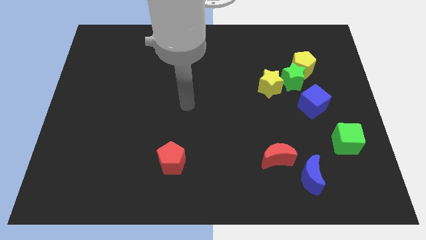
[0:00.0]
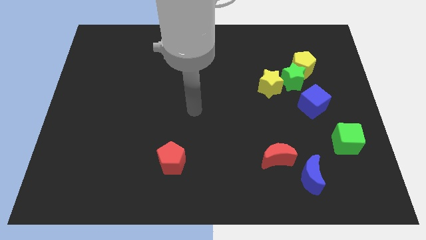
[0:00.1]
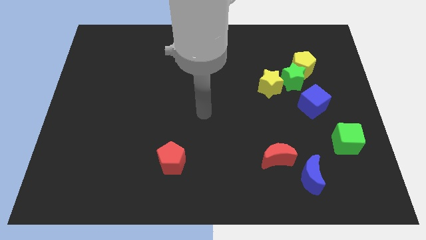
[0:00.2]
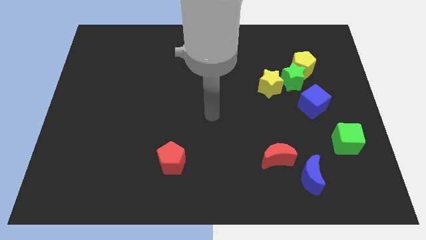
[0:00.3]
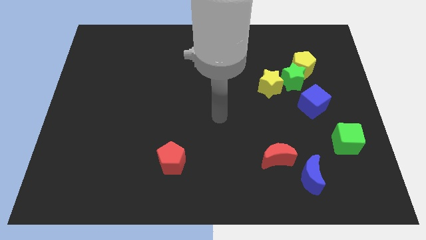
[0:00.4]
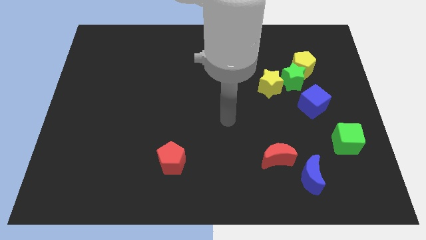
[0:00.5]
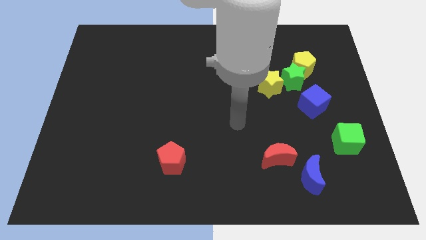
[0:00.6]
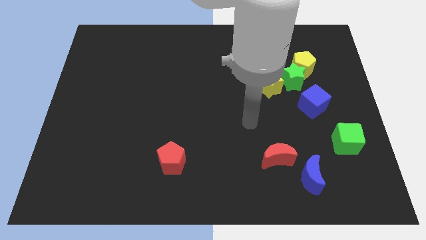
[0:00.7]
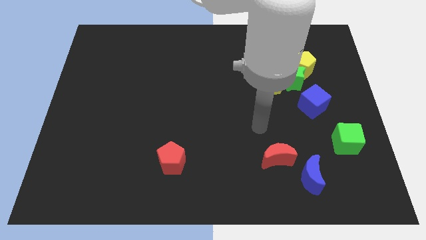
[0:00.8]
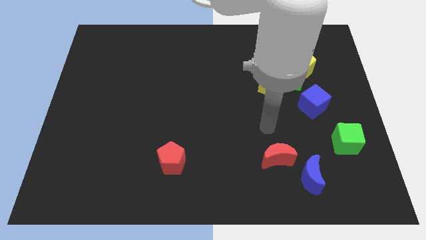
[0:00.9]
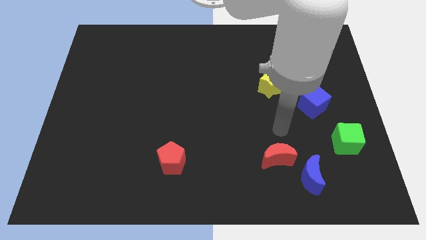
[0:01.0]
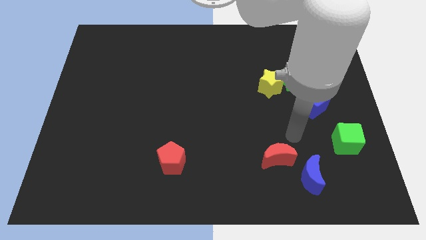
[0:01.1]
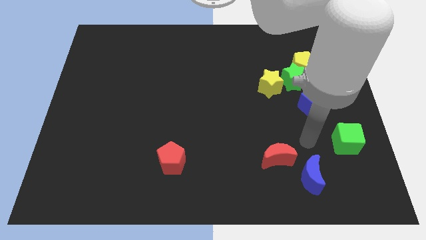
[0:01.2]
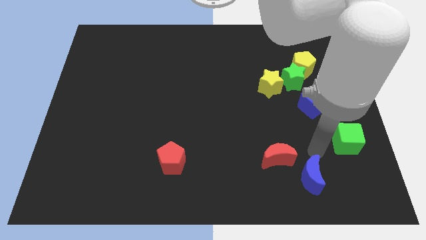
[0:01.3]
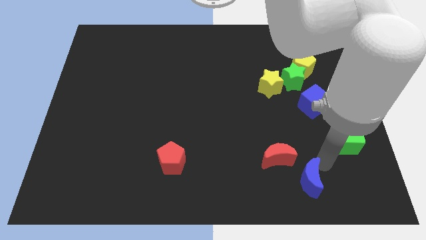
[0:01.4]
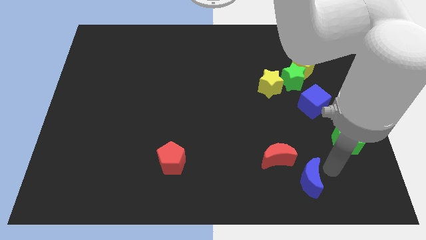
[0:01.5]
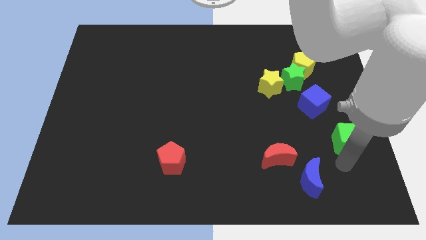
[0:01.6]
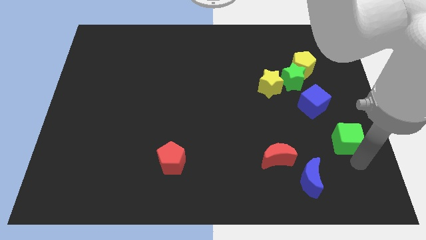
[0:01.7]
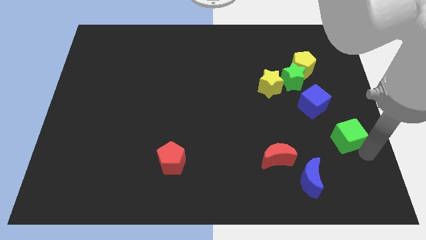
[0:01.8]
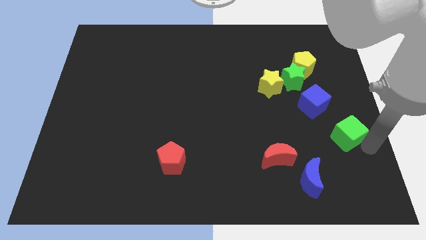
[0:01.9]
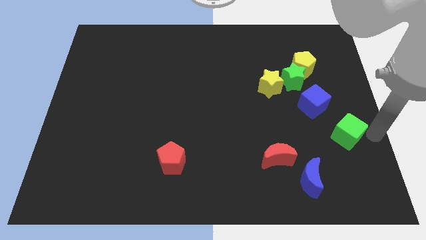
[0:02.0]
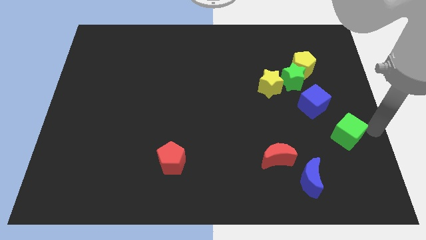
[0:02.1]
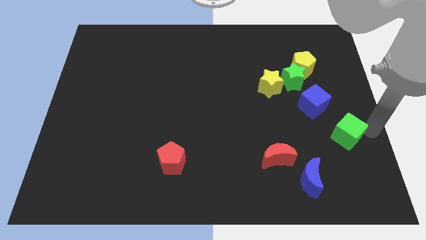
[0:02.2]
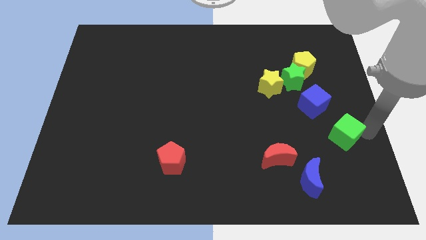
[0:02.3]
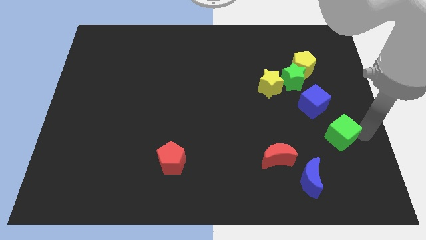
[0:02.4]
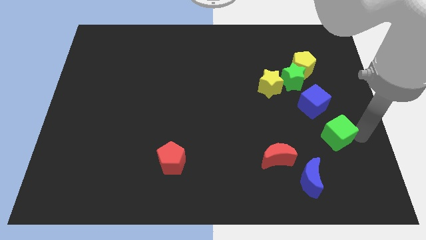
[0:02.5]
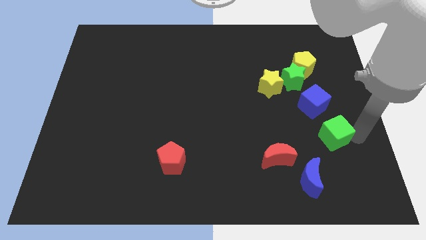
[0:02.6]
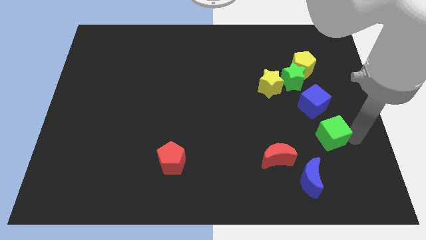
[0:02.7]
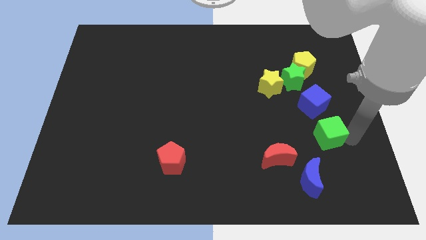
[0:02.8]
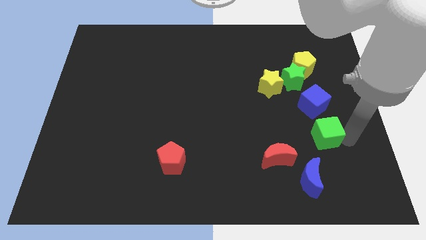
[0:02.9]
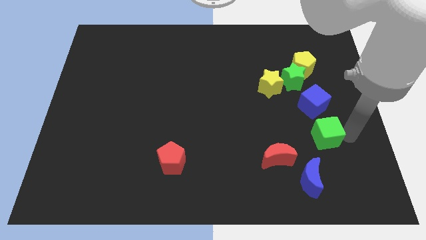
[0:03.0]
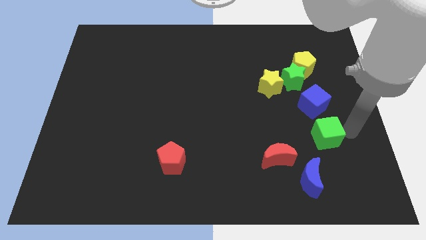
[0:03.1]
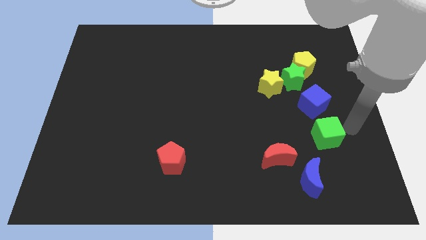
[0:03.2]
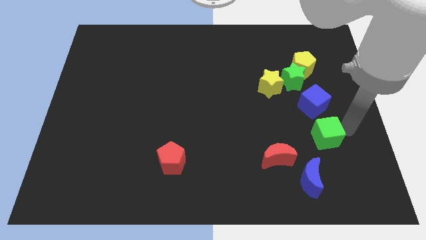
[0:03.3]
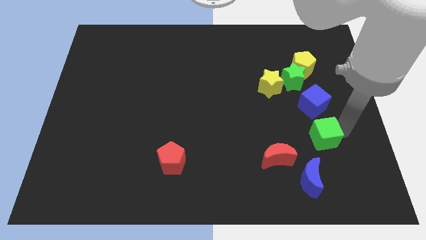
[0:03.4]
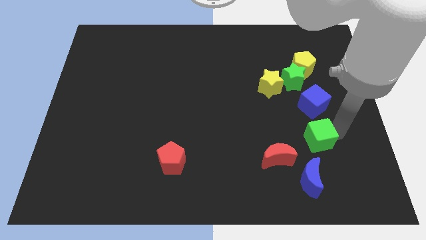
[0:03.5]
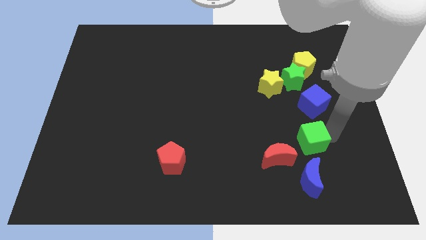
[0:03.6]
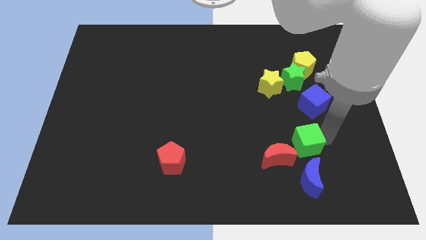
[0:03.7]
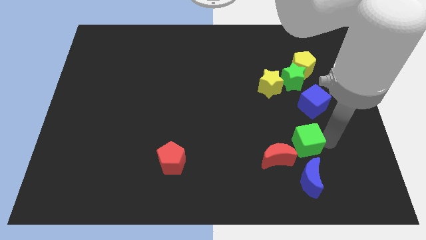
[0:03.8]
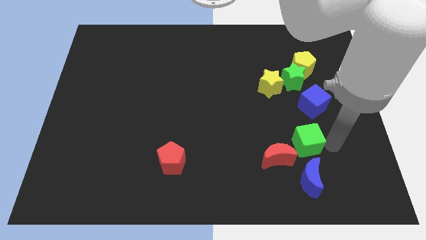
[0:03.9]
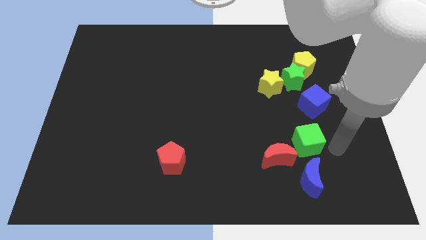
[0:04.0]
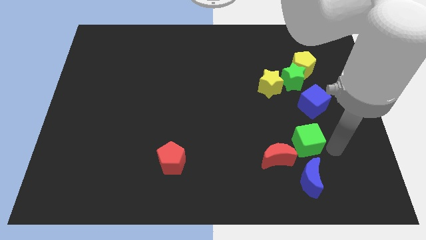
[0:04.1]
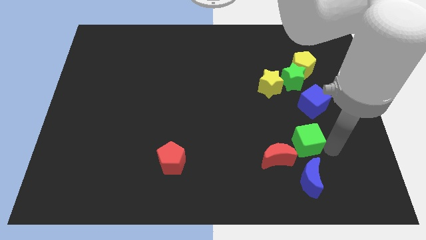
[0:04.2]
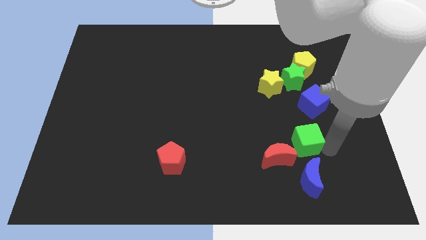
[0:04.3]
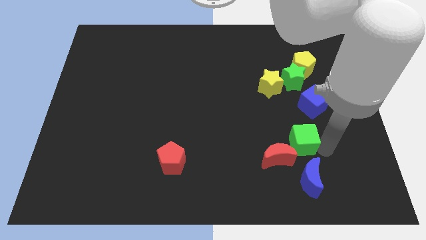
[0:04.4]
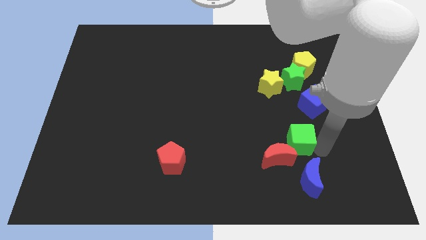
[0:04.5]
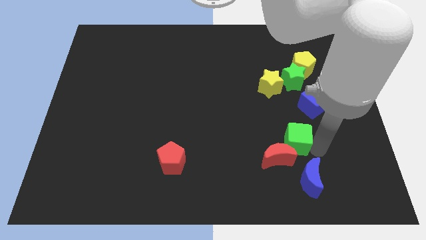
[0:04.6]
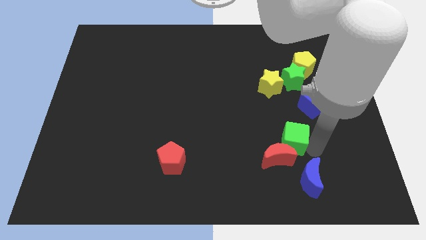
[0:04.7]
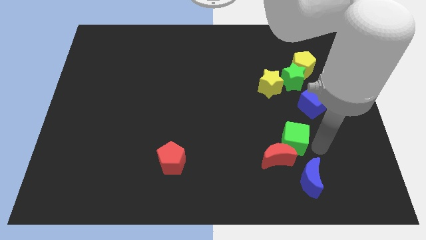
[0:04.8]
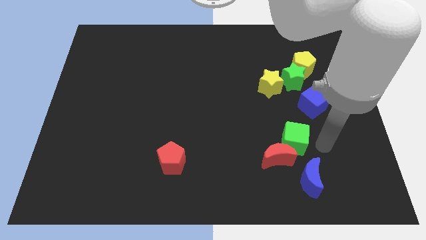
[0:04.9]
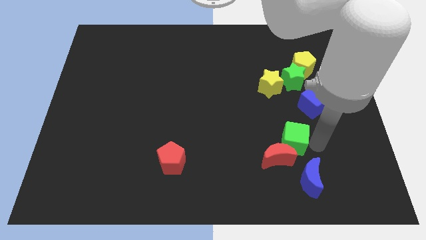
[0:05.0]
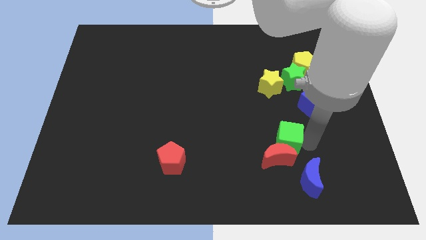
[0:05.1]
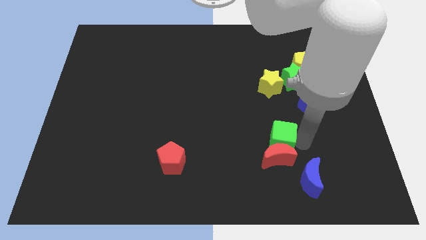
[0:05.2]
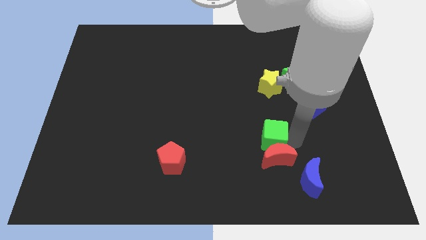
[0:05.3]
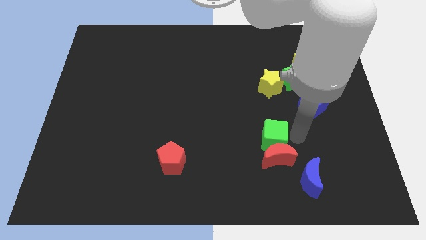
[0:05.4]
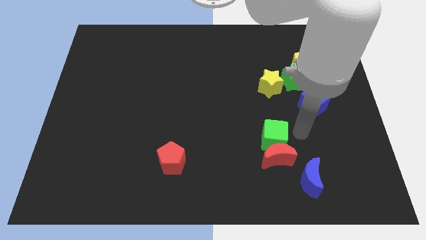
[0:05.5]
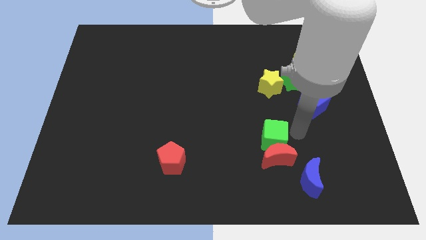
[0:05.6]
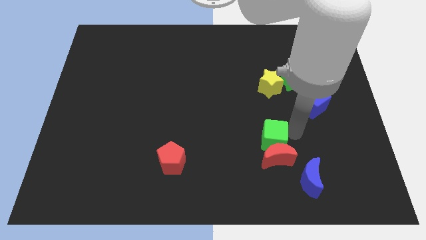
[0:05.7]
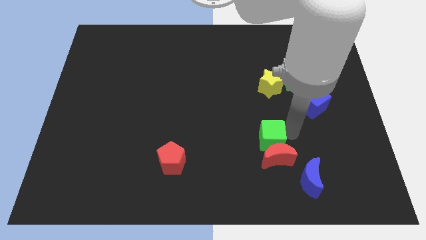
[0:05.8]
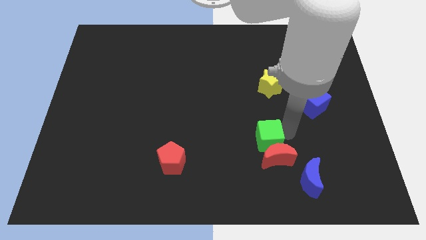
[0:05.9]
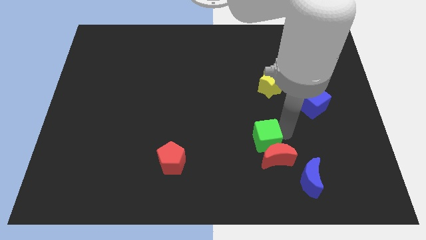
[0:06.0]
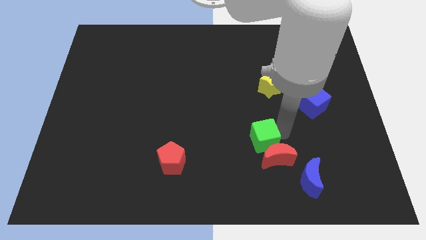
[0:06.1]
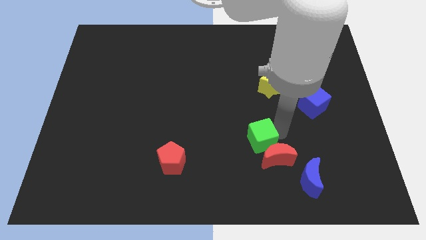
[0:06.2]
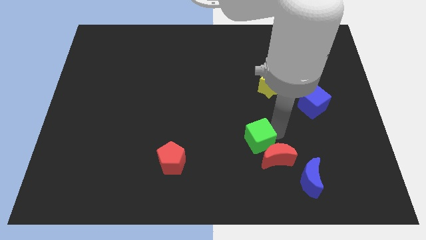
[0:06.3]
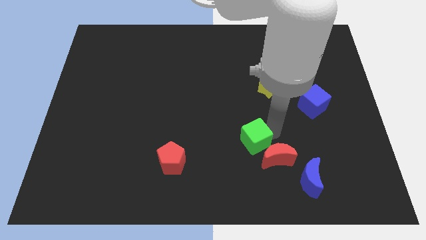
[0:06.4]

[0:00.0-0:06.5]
slide the green cube to the left

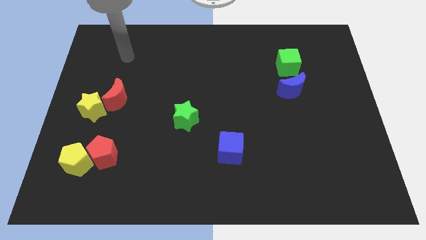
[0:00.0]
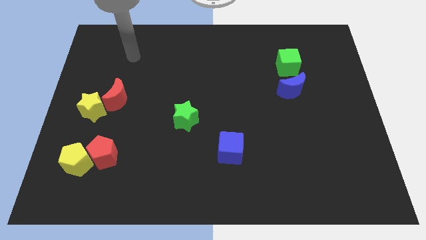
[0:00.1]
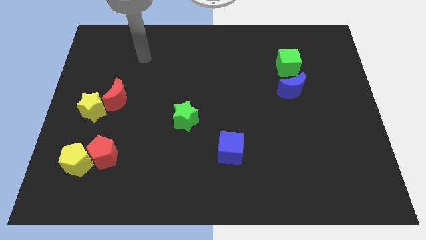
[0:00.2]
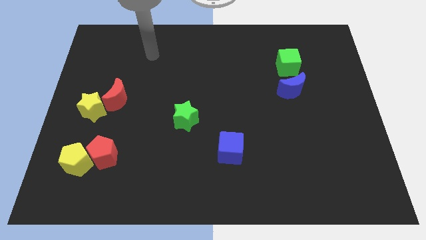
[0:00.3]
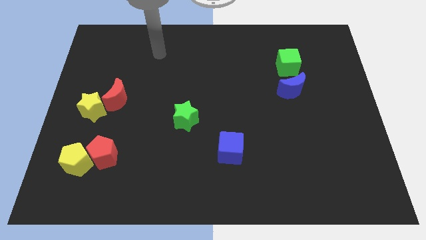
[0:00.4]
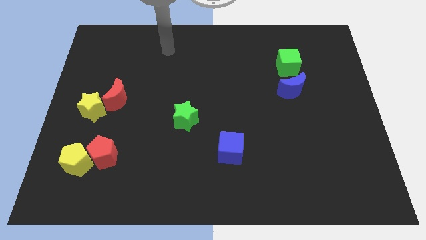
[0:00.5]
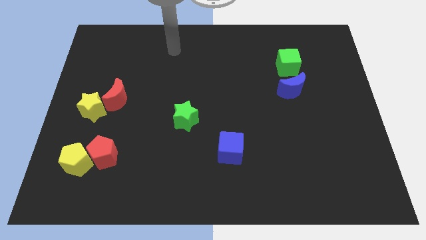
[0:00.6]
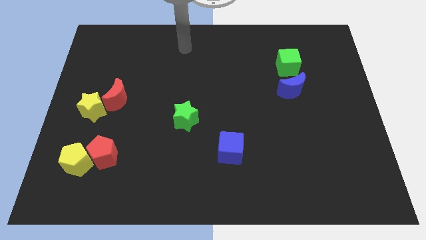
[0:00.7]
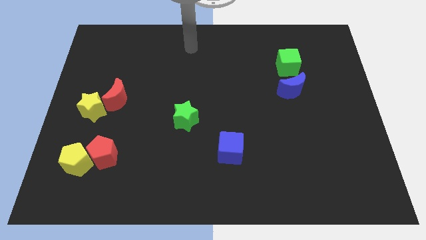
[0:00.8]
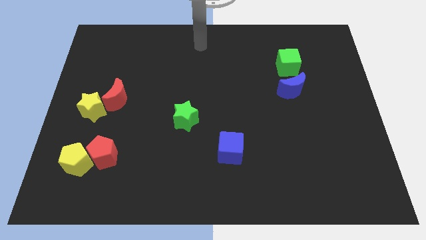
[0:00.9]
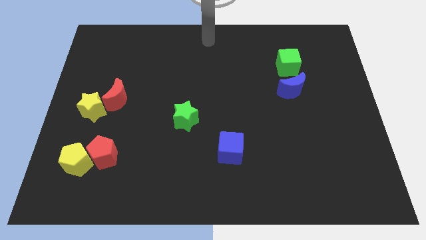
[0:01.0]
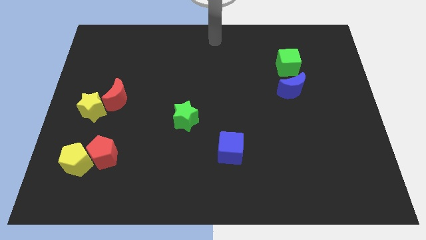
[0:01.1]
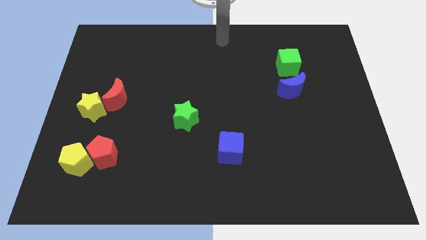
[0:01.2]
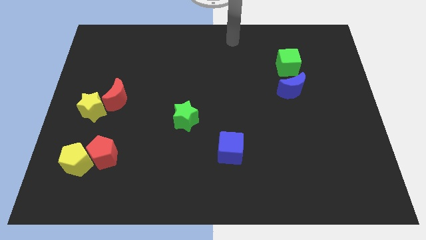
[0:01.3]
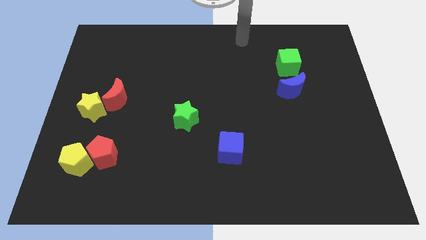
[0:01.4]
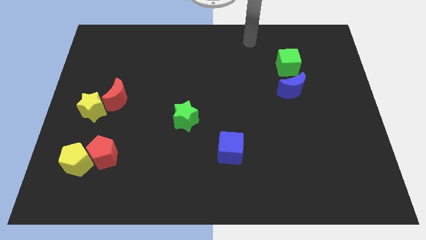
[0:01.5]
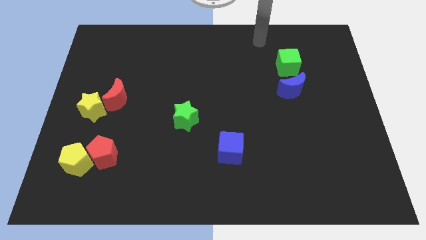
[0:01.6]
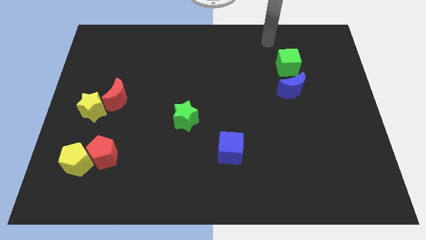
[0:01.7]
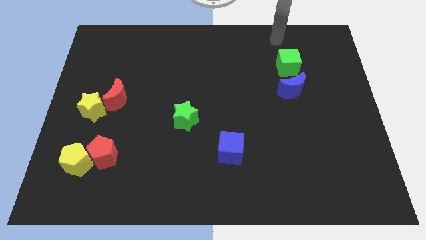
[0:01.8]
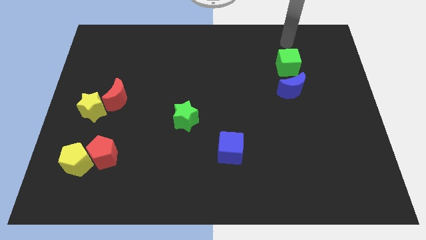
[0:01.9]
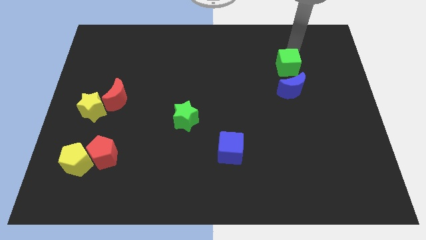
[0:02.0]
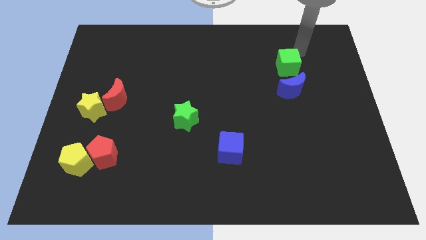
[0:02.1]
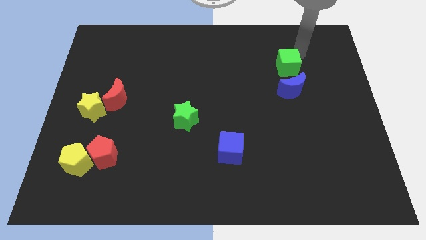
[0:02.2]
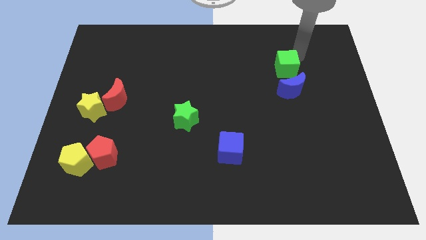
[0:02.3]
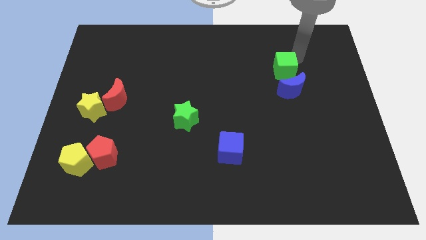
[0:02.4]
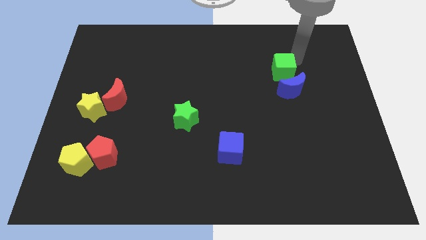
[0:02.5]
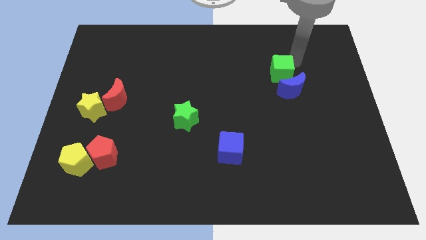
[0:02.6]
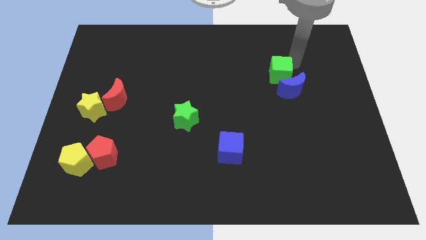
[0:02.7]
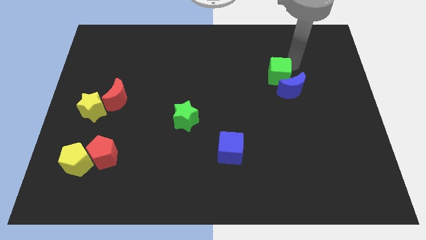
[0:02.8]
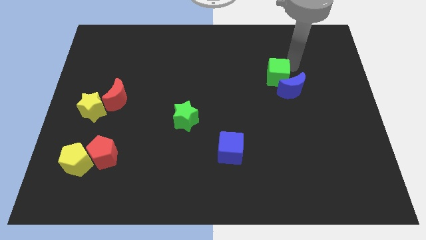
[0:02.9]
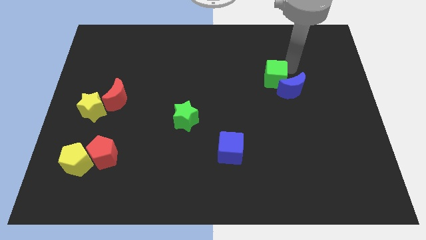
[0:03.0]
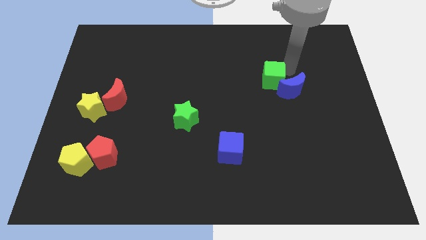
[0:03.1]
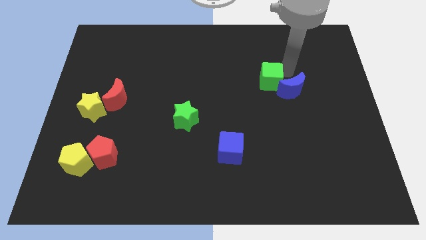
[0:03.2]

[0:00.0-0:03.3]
slide the green cube downwards and left diagonally a little bit
